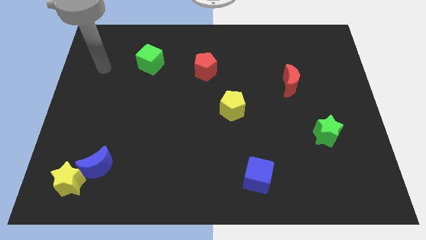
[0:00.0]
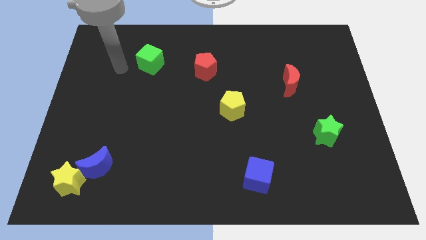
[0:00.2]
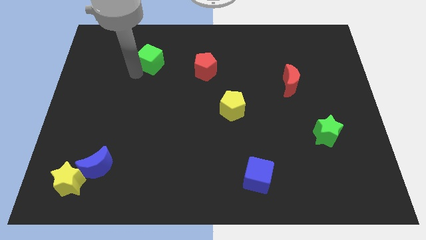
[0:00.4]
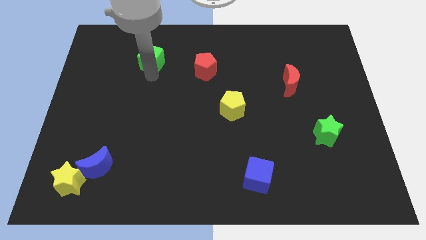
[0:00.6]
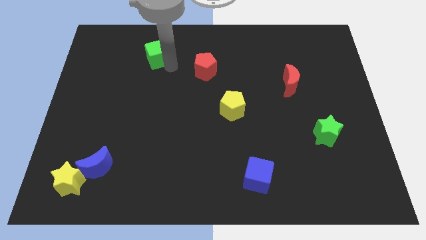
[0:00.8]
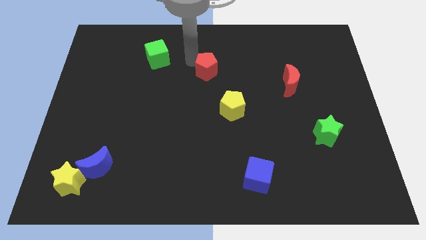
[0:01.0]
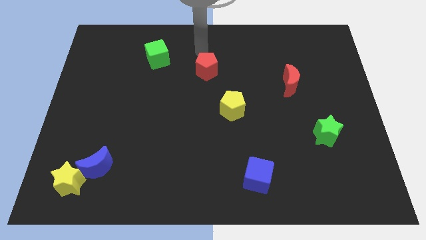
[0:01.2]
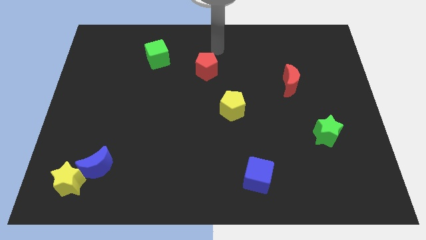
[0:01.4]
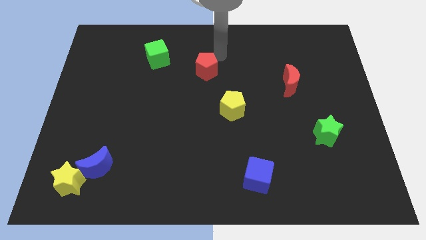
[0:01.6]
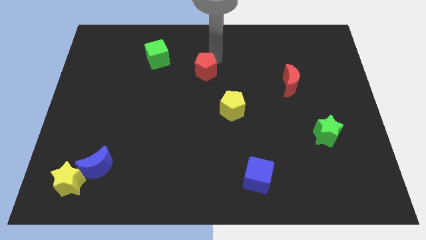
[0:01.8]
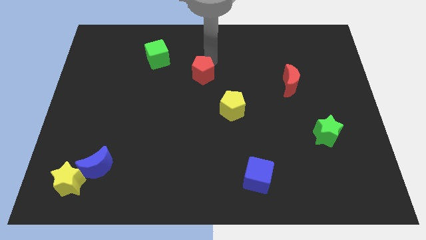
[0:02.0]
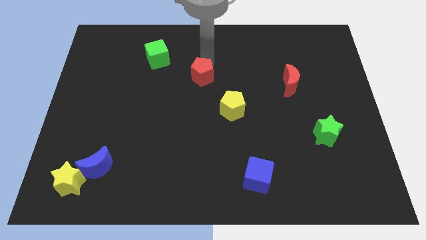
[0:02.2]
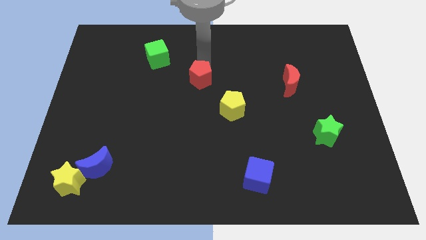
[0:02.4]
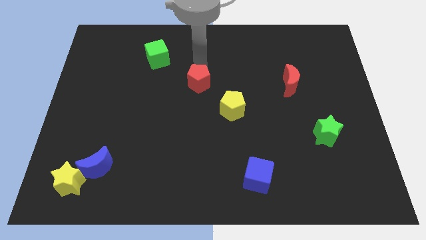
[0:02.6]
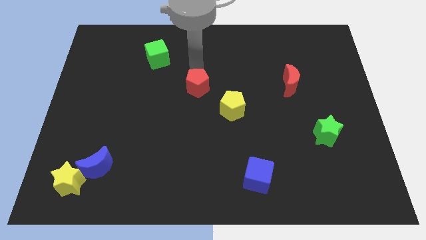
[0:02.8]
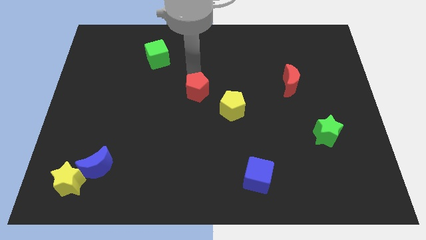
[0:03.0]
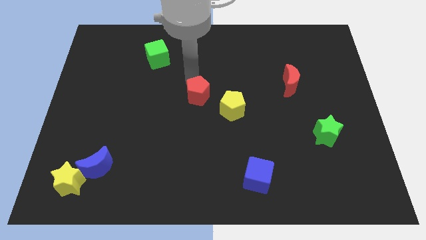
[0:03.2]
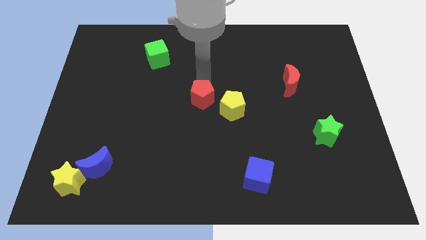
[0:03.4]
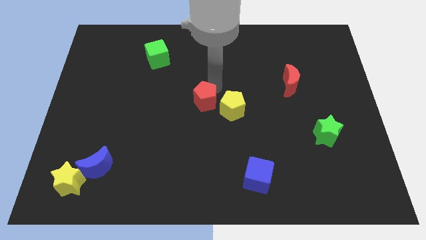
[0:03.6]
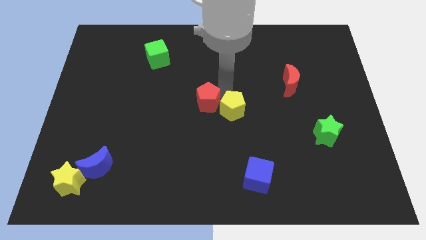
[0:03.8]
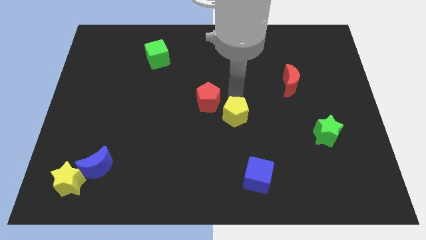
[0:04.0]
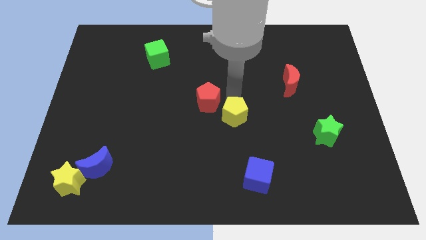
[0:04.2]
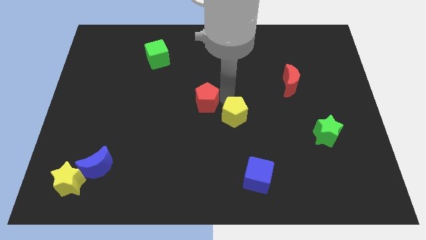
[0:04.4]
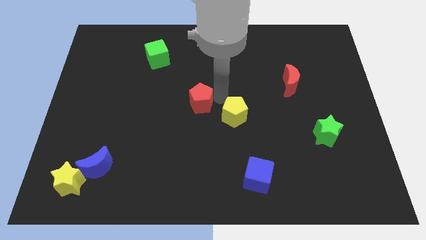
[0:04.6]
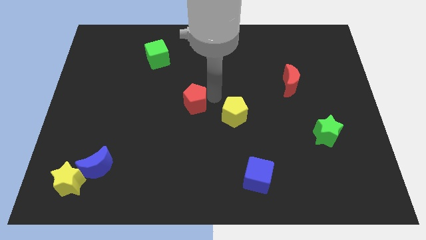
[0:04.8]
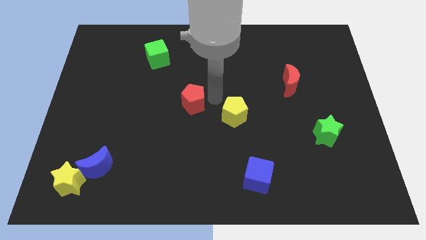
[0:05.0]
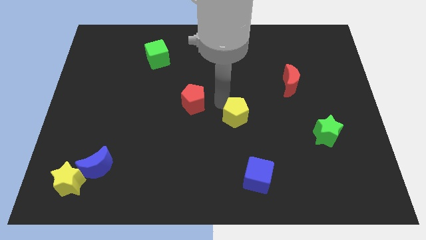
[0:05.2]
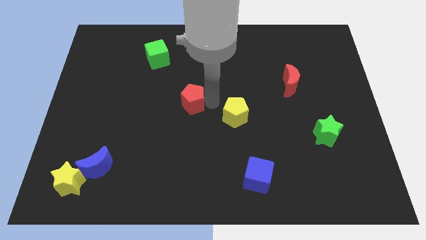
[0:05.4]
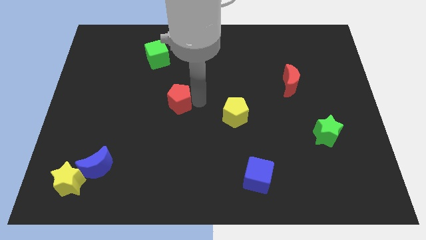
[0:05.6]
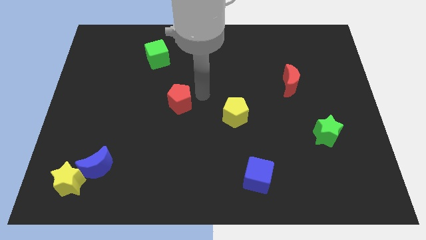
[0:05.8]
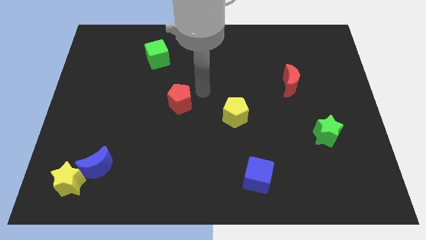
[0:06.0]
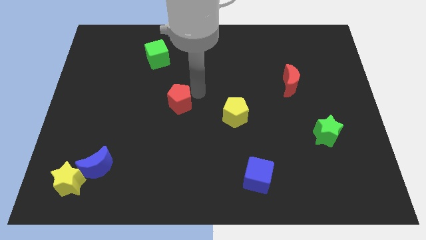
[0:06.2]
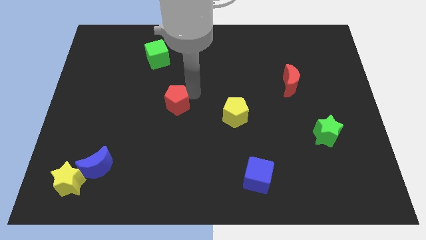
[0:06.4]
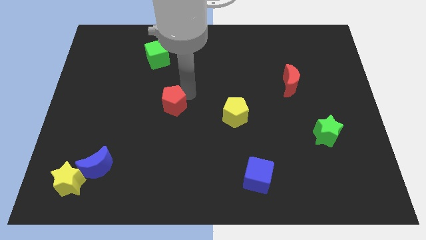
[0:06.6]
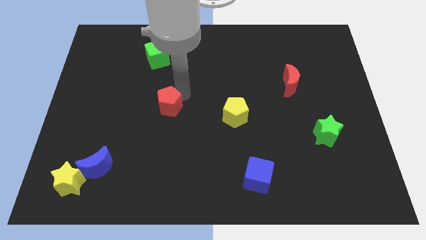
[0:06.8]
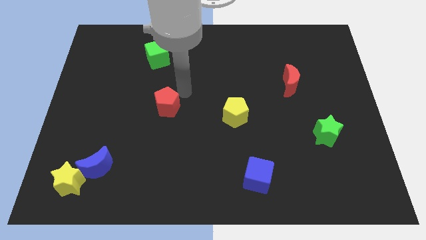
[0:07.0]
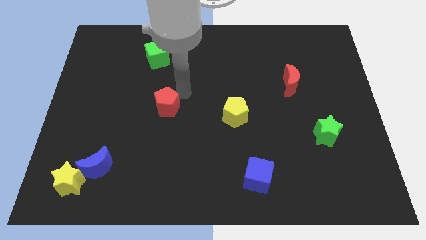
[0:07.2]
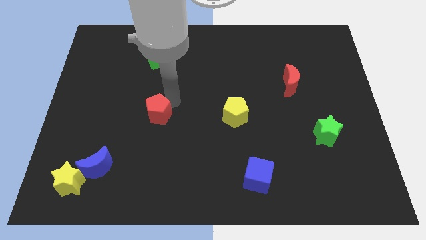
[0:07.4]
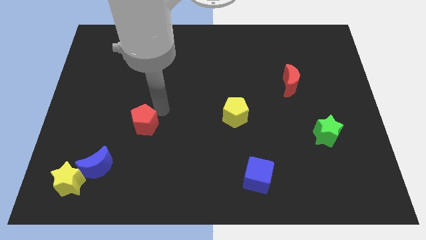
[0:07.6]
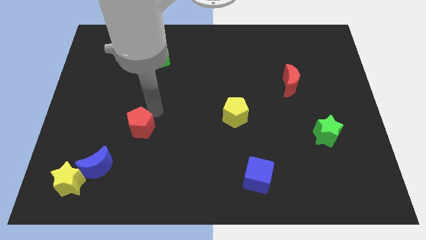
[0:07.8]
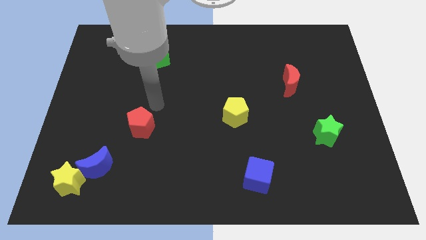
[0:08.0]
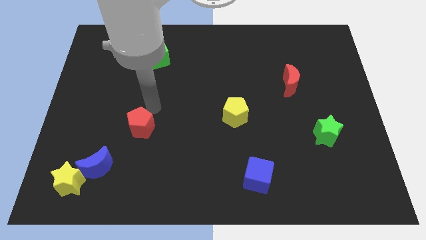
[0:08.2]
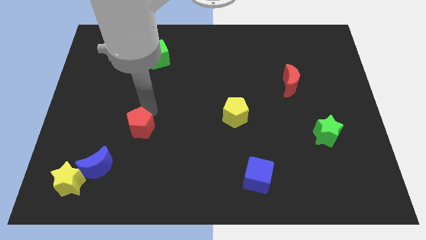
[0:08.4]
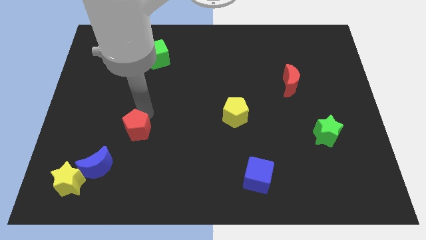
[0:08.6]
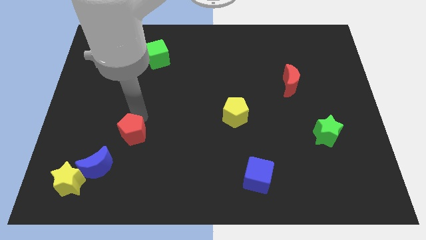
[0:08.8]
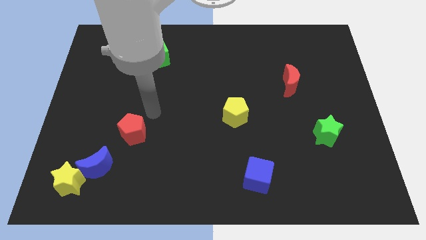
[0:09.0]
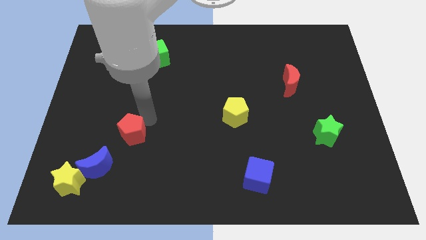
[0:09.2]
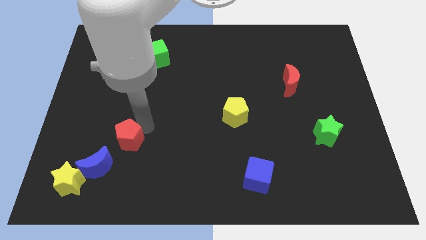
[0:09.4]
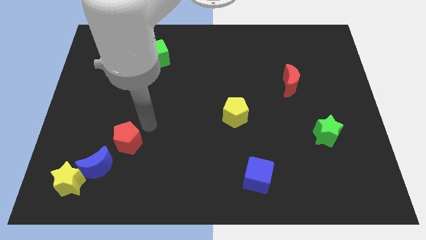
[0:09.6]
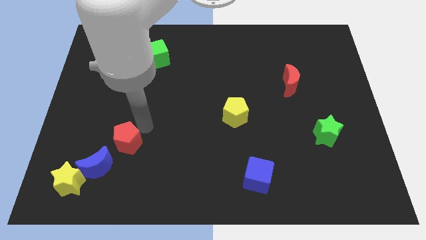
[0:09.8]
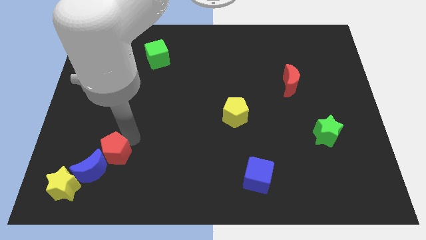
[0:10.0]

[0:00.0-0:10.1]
put the red pentagon towards the blue moon

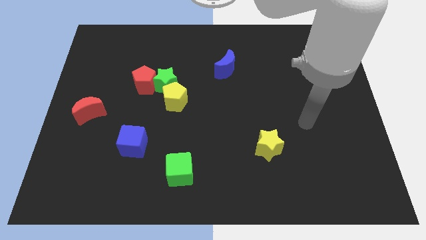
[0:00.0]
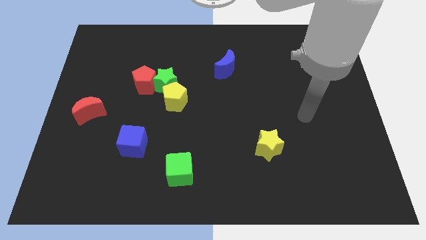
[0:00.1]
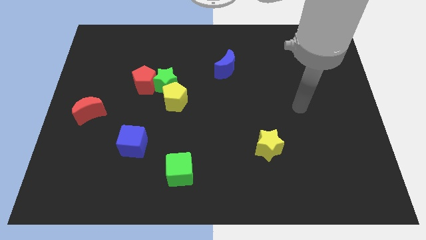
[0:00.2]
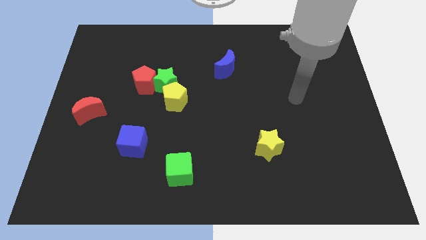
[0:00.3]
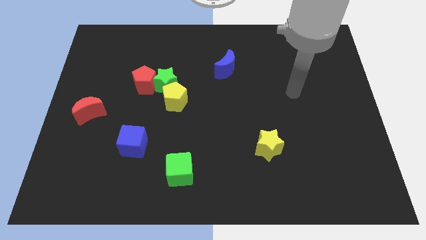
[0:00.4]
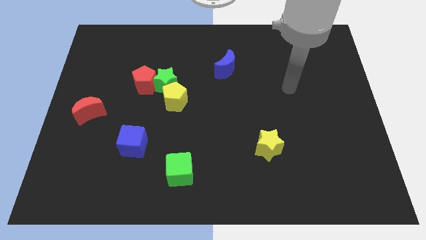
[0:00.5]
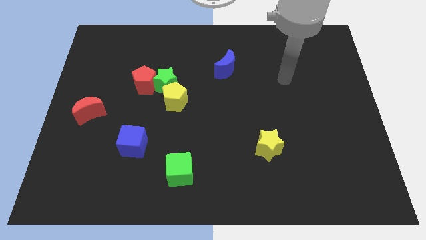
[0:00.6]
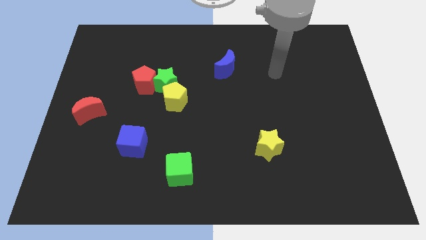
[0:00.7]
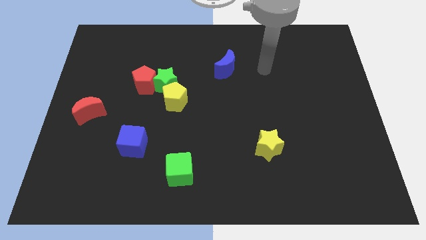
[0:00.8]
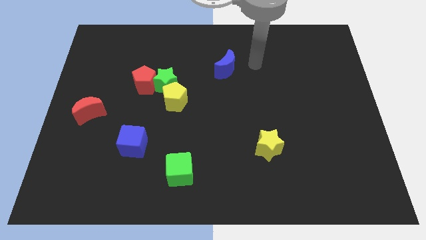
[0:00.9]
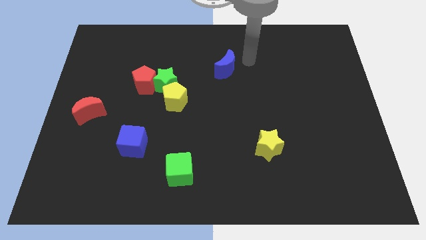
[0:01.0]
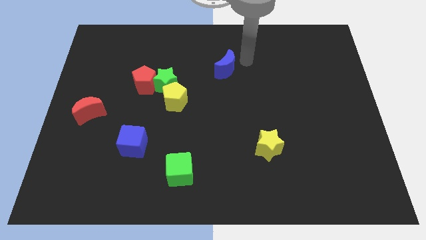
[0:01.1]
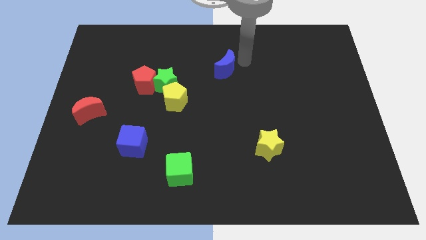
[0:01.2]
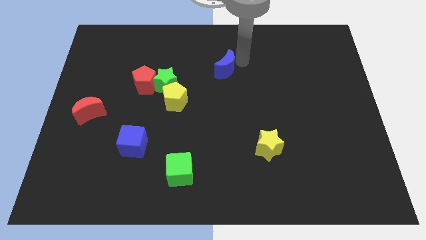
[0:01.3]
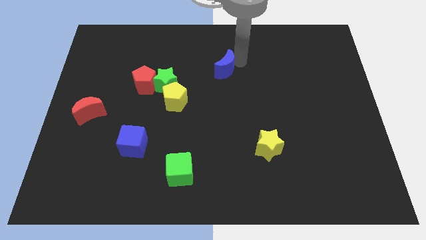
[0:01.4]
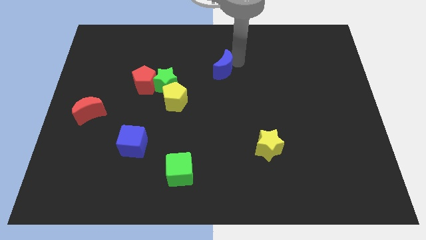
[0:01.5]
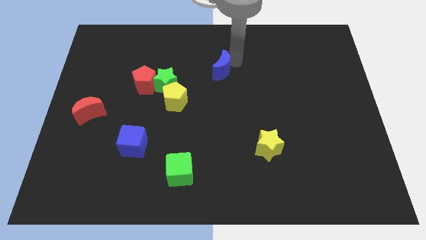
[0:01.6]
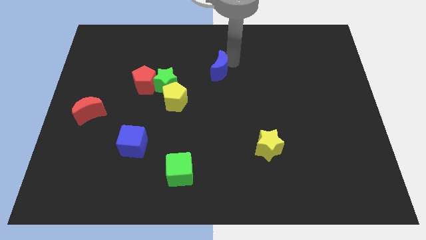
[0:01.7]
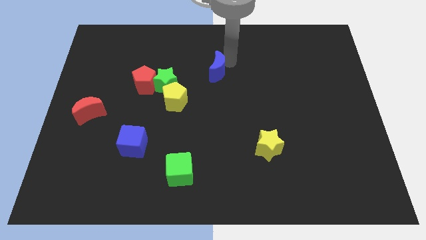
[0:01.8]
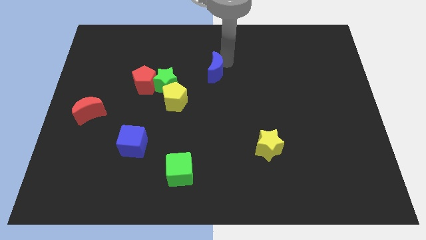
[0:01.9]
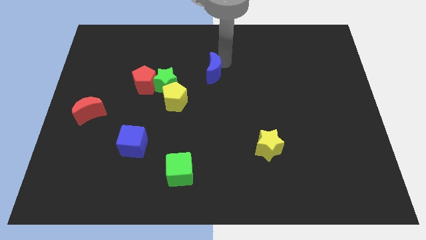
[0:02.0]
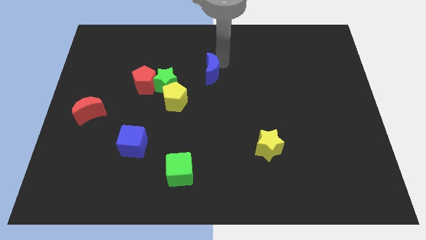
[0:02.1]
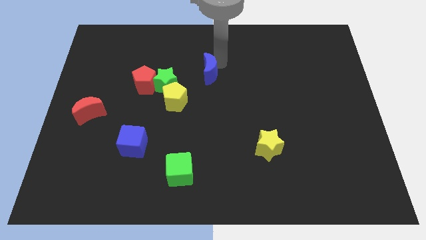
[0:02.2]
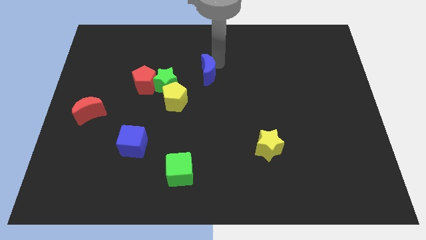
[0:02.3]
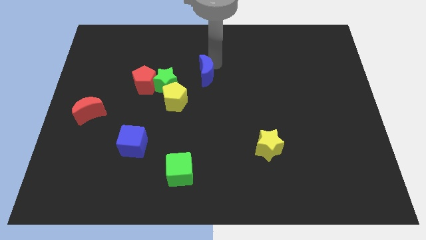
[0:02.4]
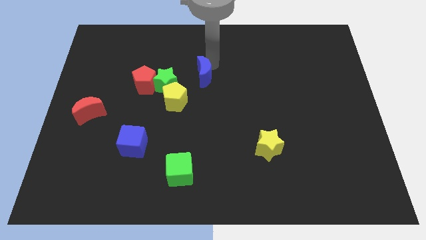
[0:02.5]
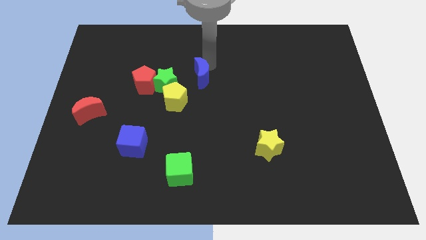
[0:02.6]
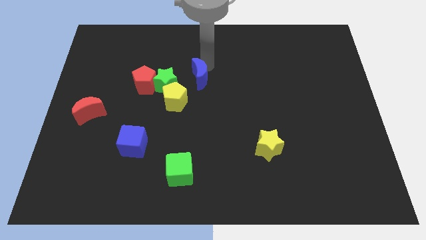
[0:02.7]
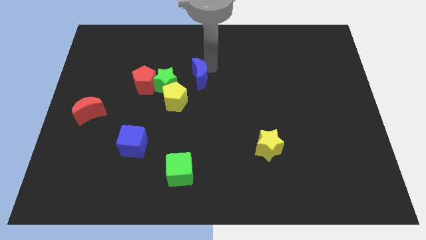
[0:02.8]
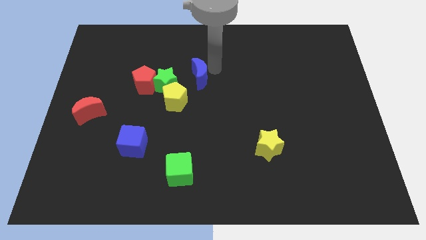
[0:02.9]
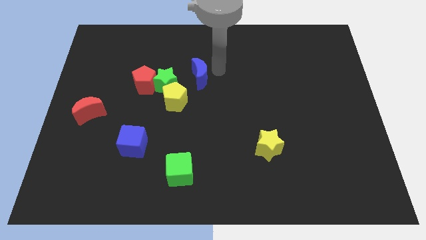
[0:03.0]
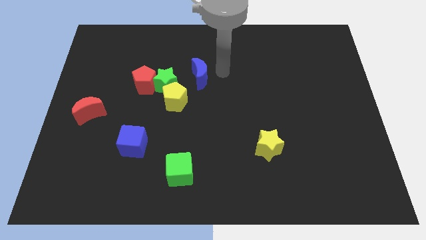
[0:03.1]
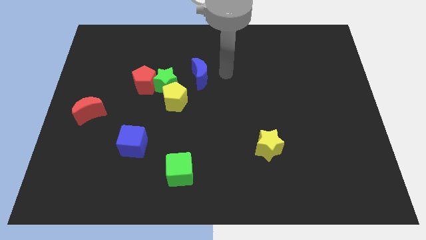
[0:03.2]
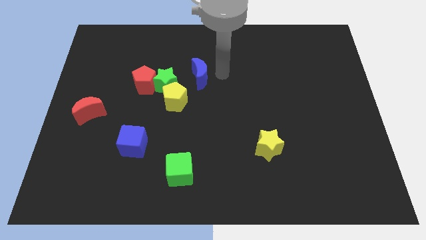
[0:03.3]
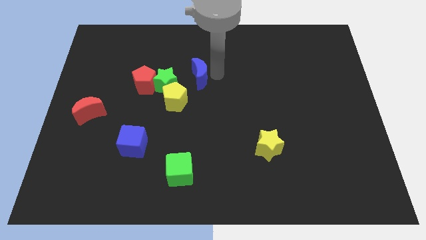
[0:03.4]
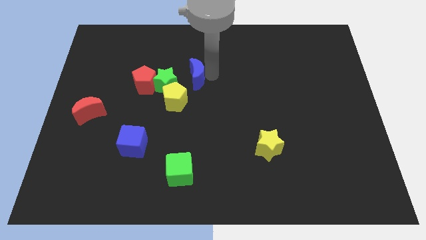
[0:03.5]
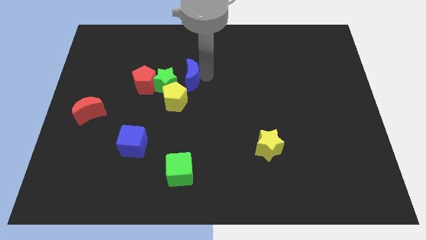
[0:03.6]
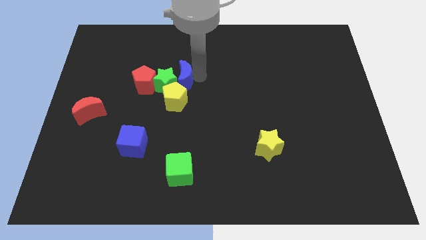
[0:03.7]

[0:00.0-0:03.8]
slide the blue moon towards the green star
